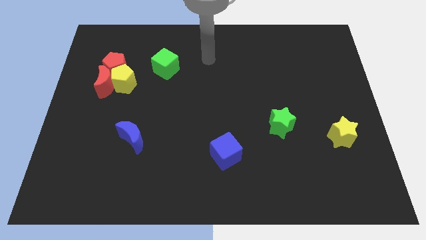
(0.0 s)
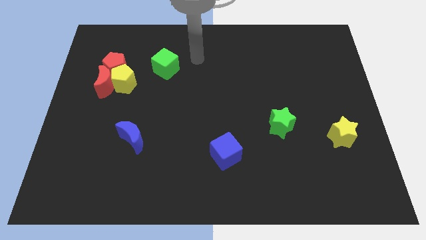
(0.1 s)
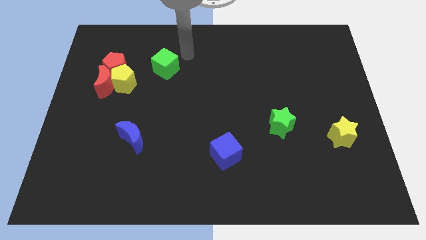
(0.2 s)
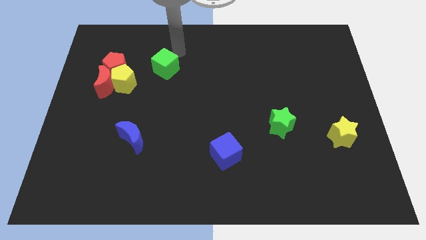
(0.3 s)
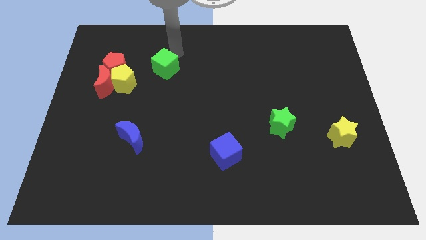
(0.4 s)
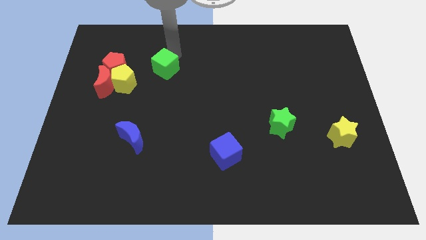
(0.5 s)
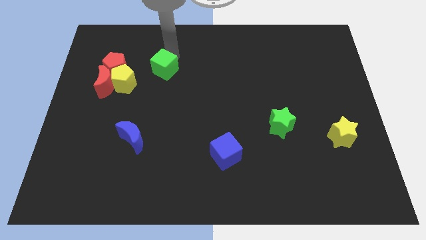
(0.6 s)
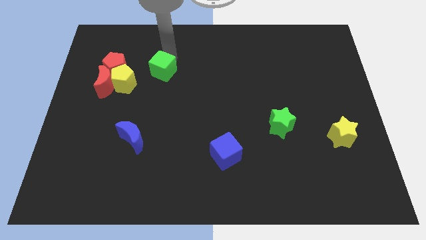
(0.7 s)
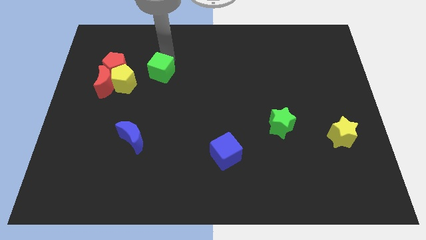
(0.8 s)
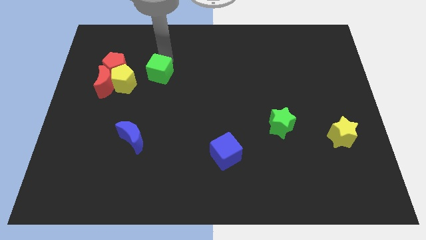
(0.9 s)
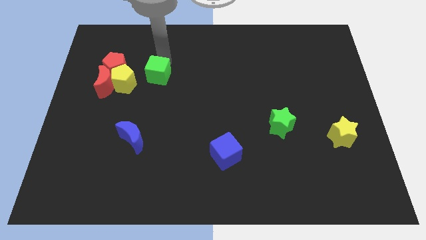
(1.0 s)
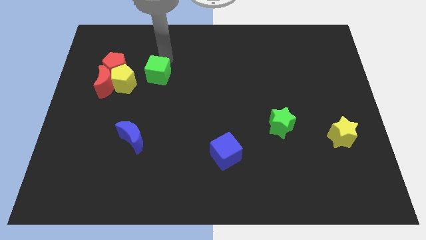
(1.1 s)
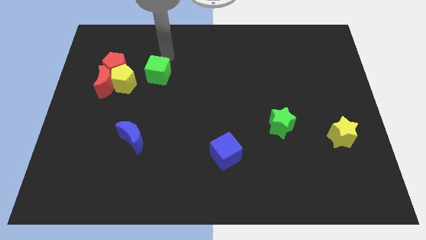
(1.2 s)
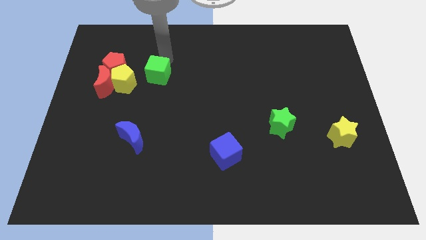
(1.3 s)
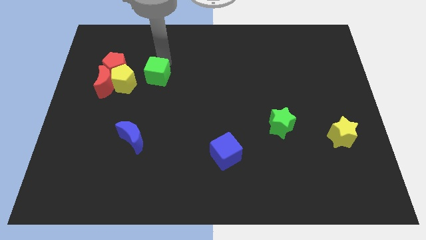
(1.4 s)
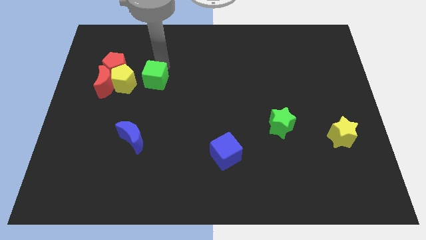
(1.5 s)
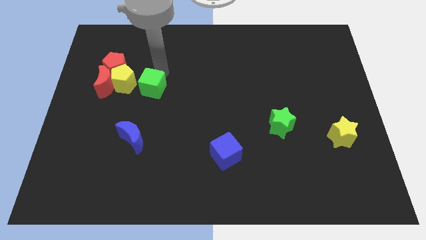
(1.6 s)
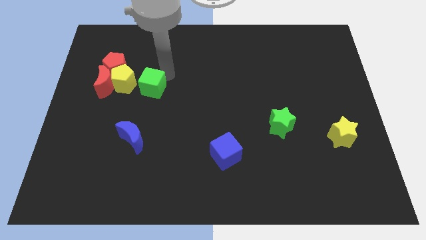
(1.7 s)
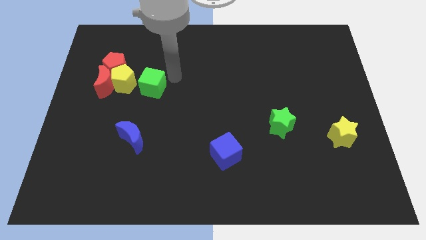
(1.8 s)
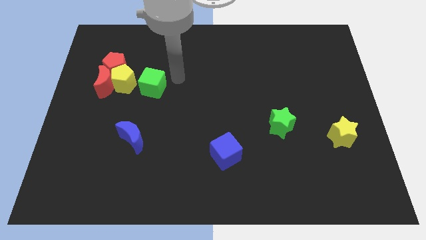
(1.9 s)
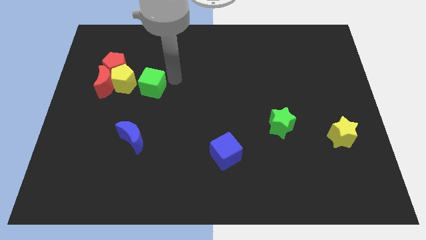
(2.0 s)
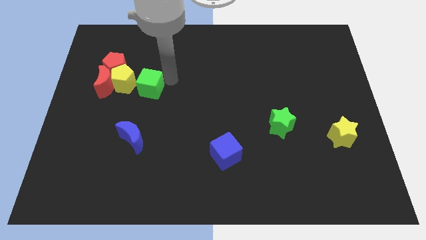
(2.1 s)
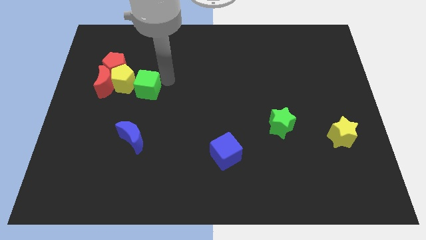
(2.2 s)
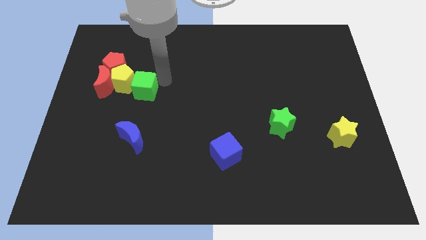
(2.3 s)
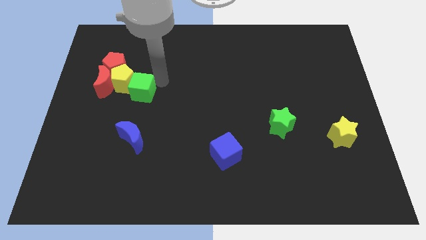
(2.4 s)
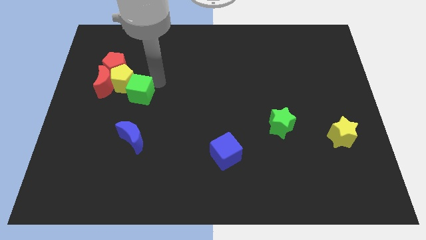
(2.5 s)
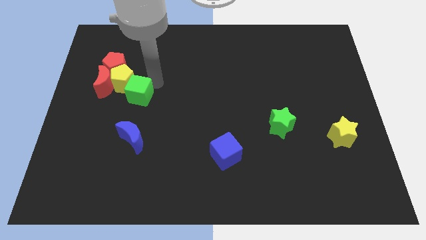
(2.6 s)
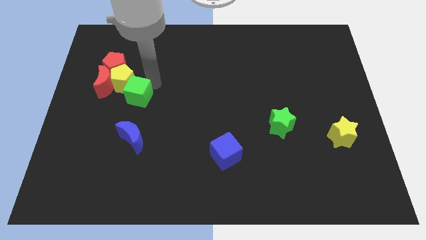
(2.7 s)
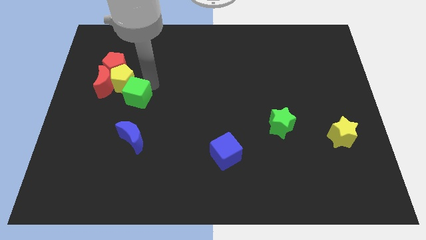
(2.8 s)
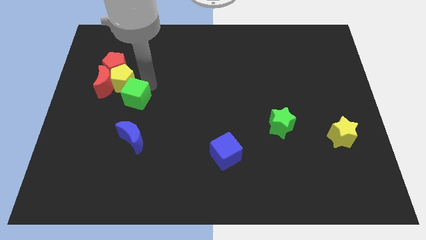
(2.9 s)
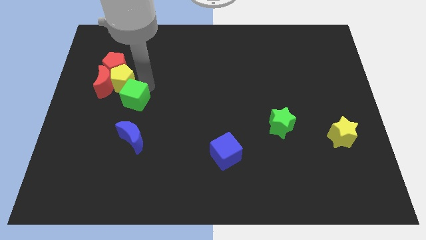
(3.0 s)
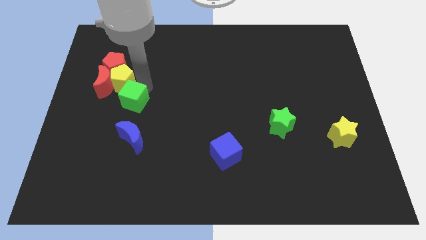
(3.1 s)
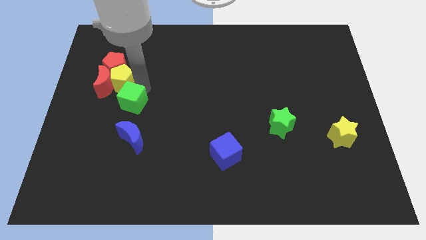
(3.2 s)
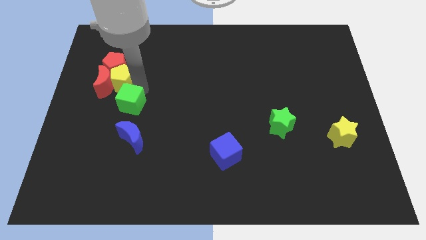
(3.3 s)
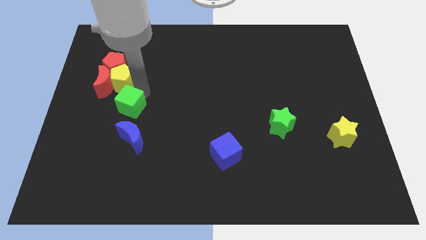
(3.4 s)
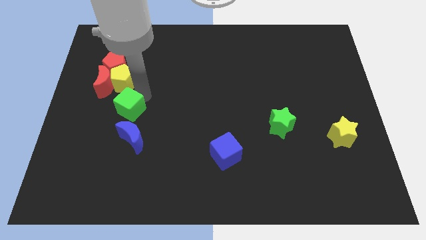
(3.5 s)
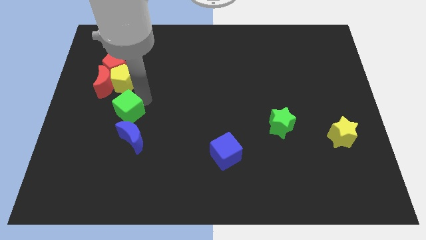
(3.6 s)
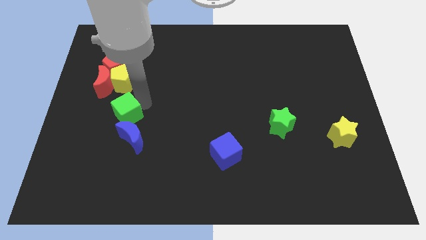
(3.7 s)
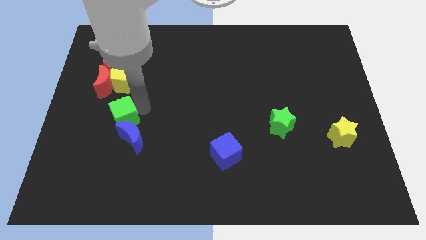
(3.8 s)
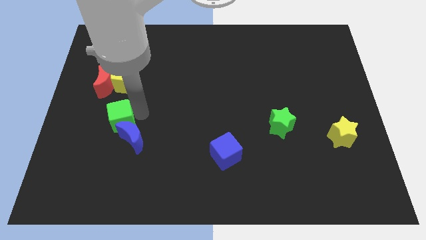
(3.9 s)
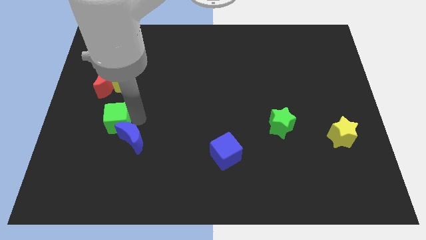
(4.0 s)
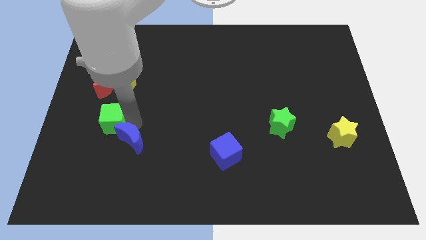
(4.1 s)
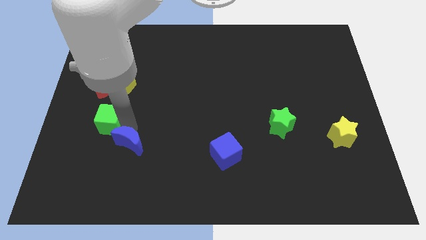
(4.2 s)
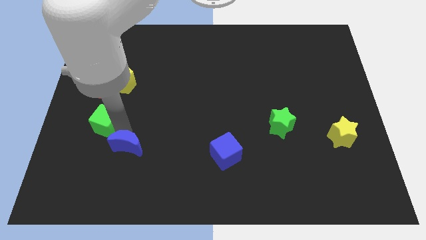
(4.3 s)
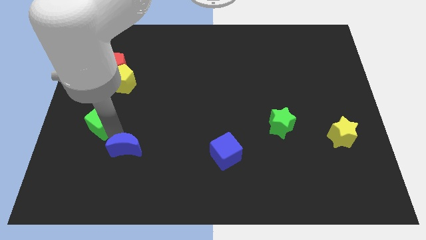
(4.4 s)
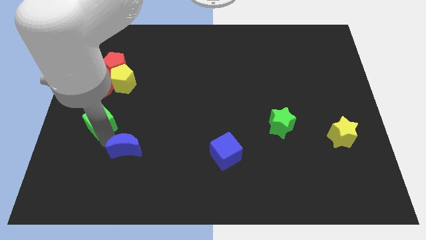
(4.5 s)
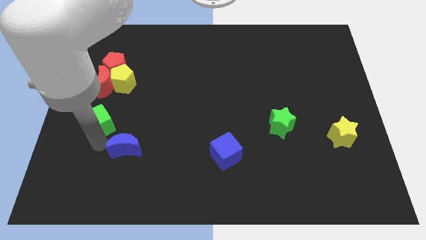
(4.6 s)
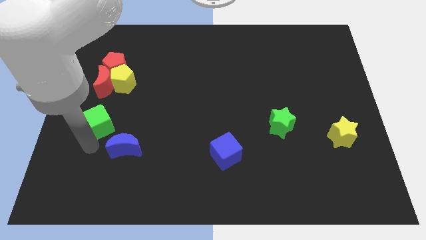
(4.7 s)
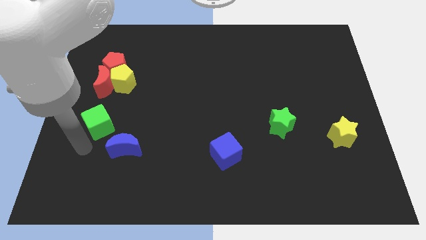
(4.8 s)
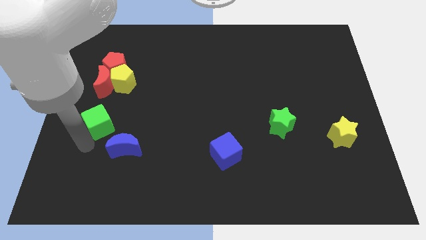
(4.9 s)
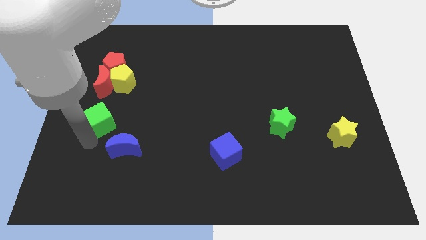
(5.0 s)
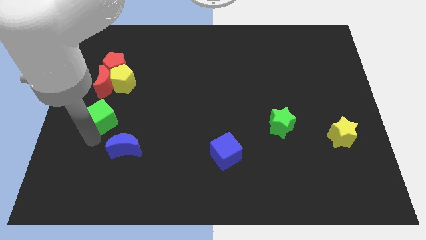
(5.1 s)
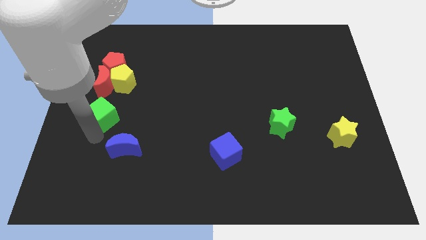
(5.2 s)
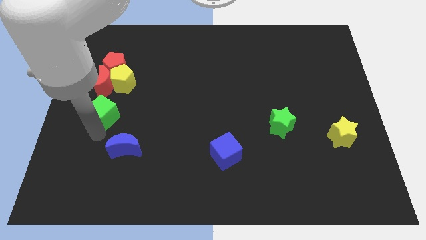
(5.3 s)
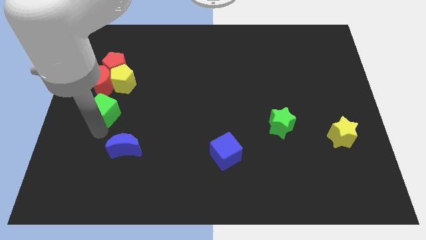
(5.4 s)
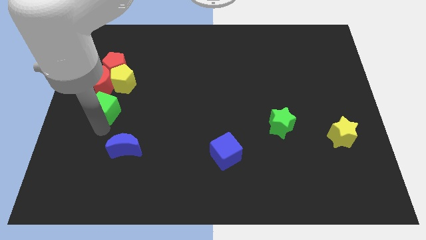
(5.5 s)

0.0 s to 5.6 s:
slide the green cube to the center left

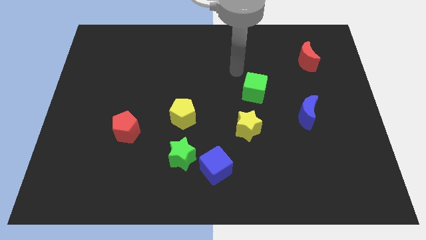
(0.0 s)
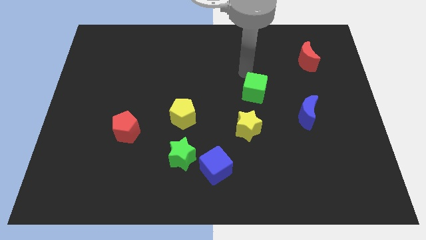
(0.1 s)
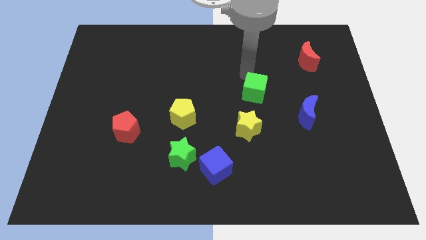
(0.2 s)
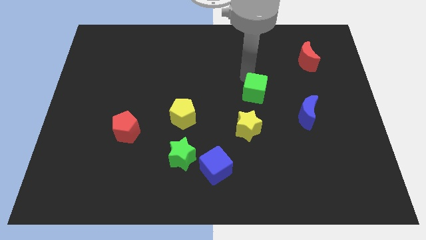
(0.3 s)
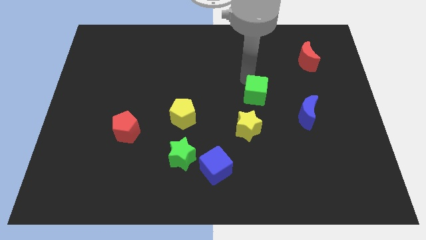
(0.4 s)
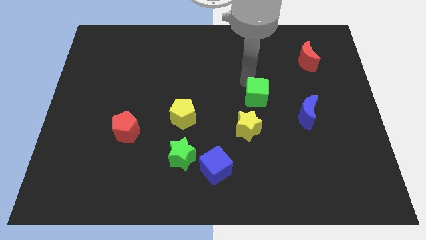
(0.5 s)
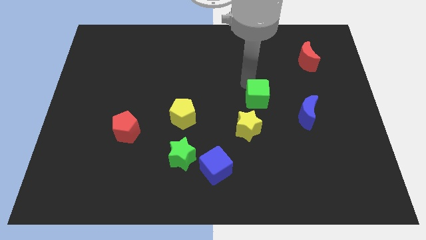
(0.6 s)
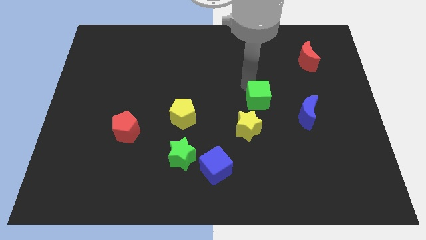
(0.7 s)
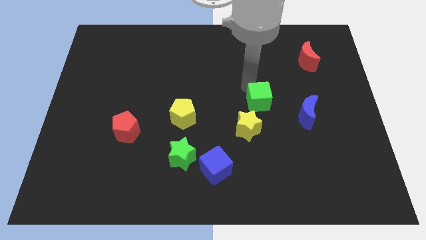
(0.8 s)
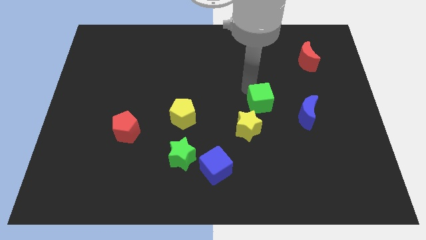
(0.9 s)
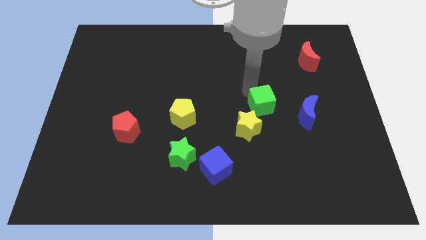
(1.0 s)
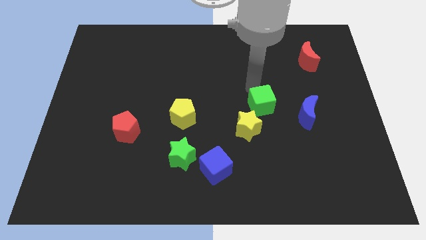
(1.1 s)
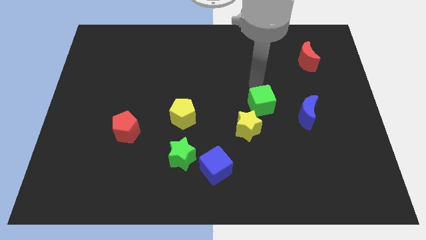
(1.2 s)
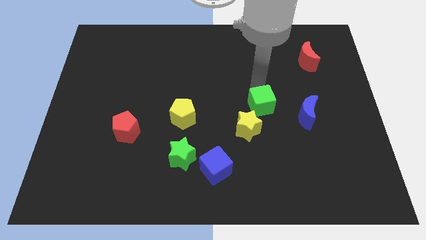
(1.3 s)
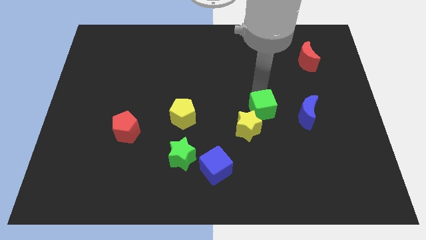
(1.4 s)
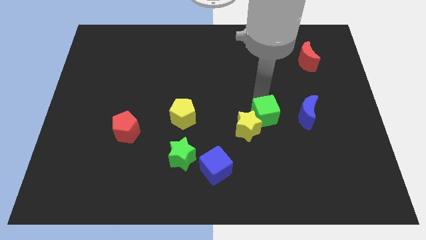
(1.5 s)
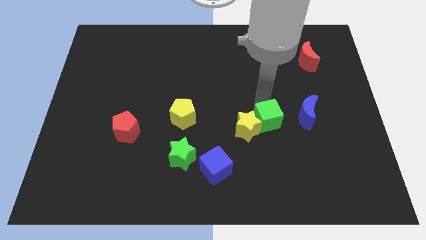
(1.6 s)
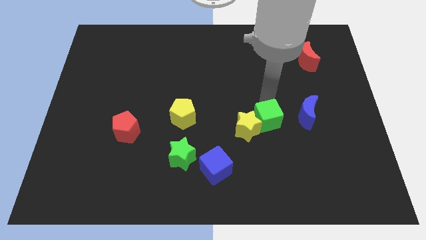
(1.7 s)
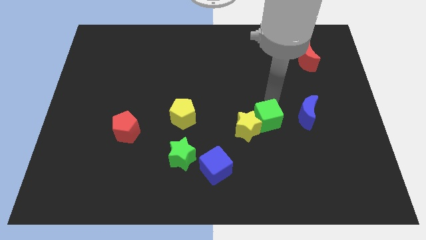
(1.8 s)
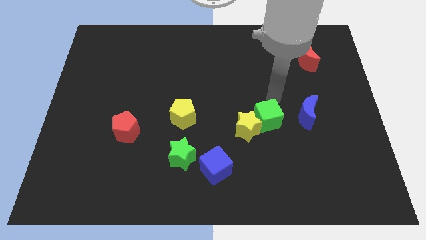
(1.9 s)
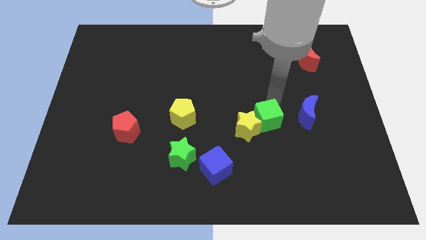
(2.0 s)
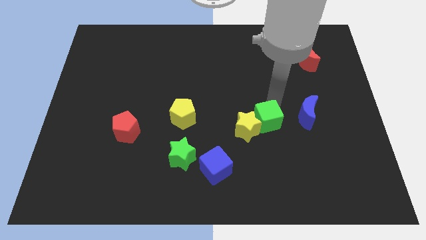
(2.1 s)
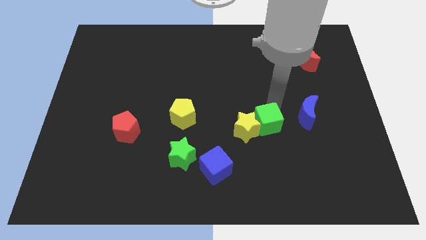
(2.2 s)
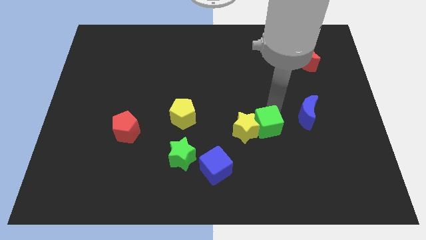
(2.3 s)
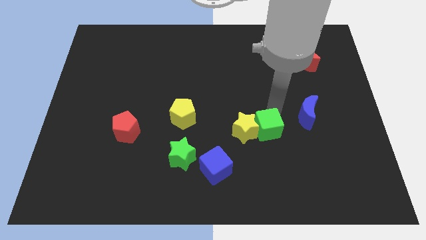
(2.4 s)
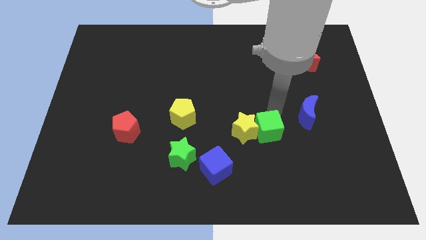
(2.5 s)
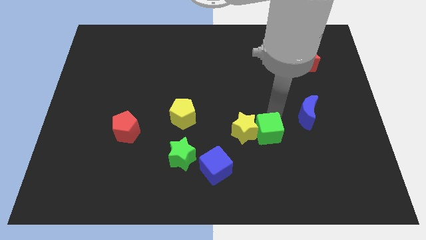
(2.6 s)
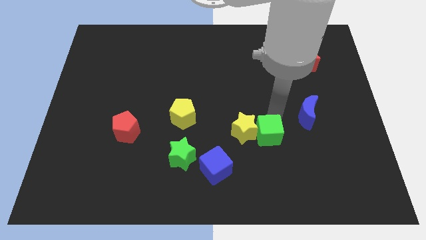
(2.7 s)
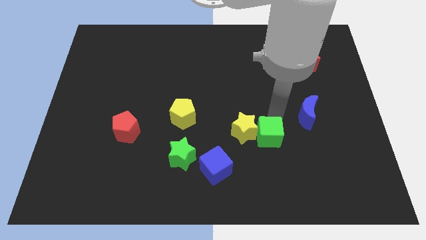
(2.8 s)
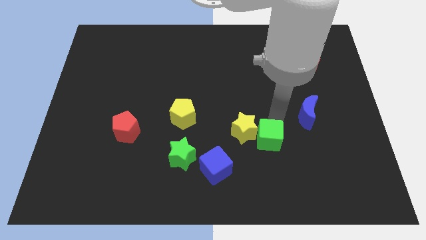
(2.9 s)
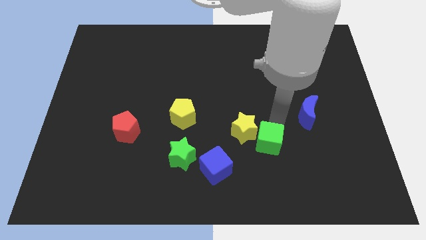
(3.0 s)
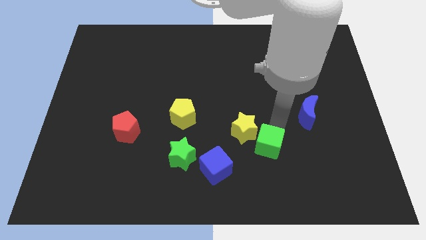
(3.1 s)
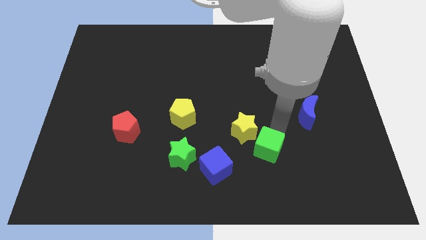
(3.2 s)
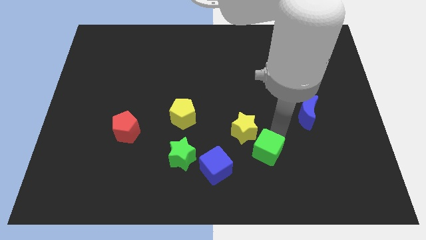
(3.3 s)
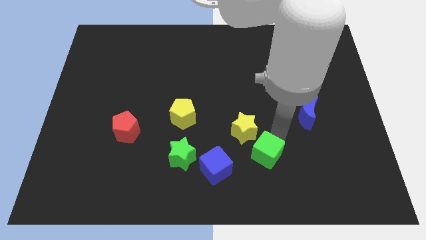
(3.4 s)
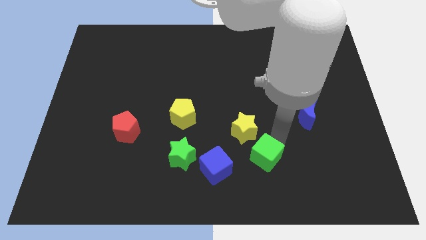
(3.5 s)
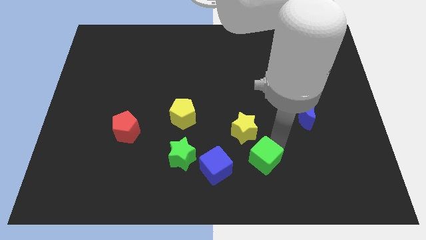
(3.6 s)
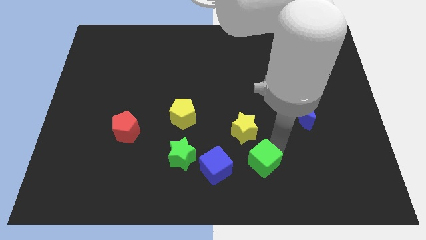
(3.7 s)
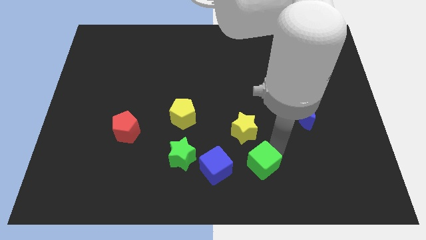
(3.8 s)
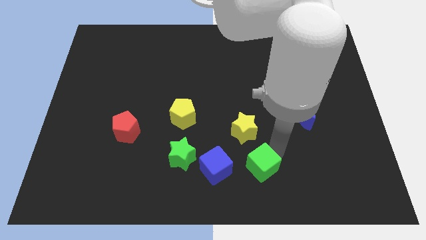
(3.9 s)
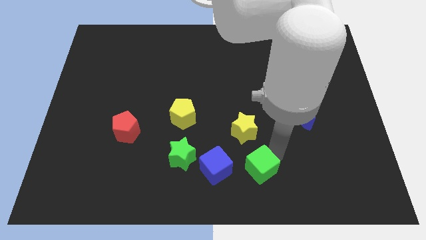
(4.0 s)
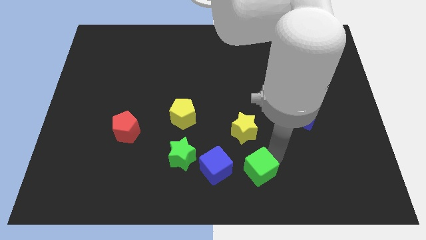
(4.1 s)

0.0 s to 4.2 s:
move the green cube to the bottom
